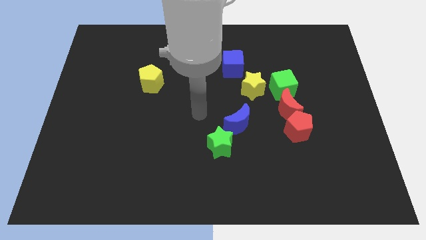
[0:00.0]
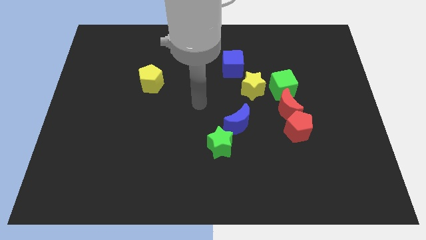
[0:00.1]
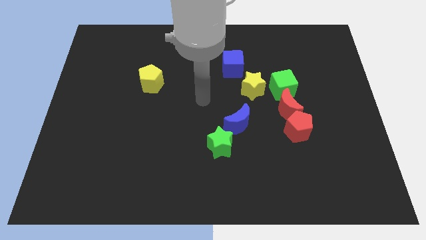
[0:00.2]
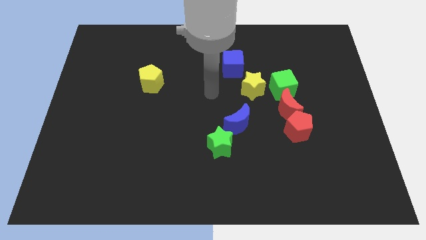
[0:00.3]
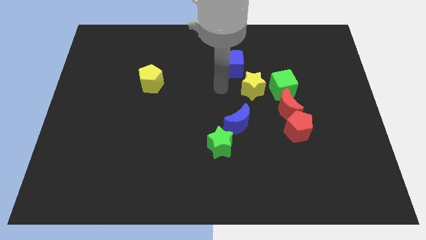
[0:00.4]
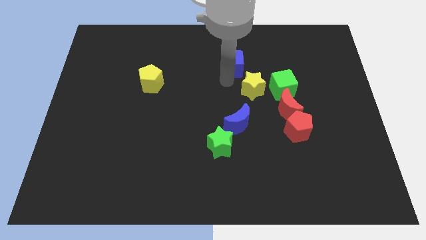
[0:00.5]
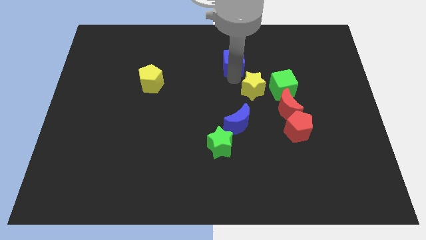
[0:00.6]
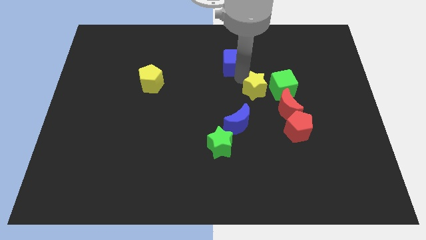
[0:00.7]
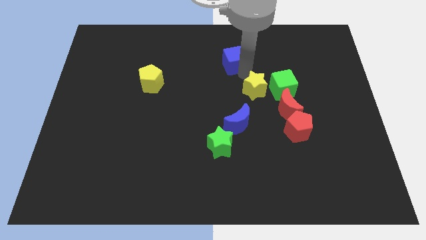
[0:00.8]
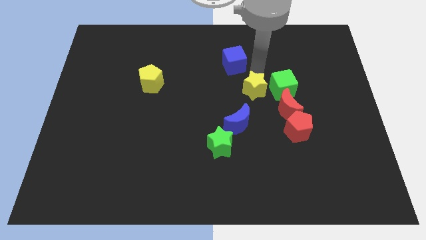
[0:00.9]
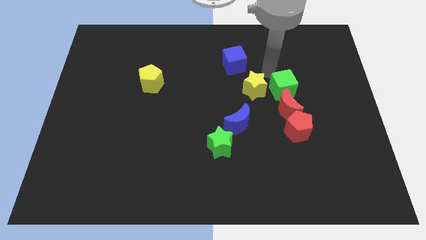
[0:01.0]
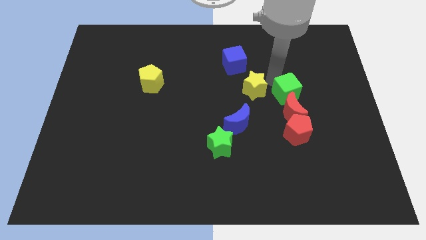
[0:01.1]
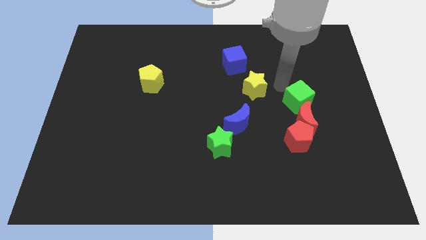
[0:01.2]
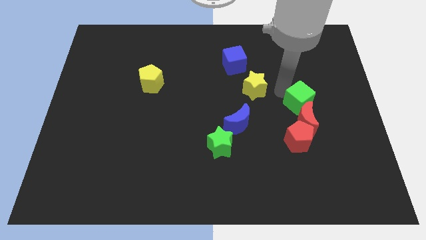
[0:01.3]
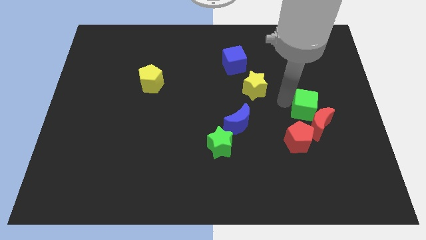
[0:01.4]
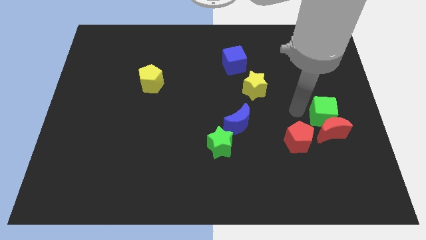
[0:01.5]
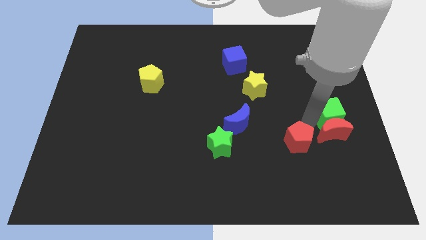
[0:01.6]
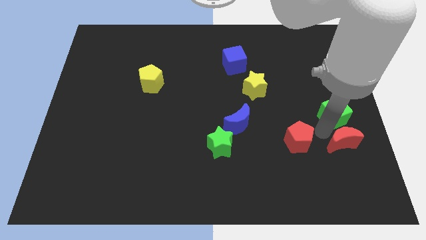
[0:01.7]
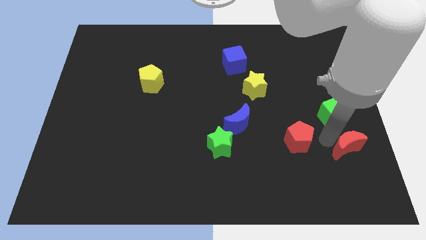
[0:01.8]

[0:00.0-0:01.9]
move the red pentagon away from the red moon

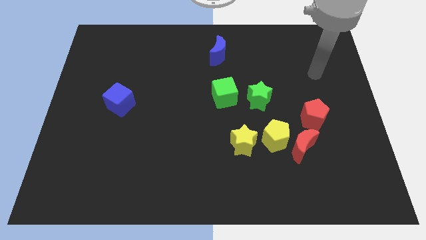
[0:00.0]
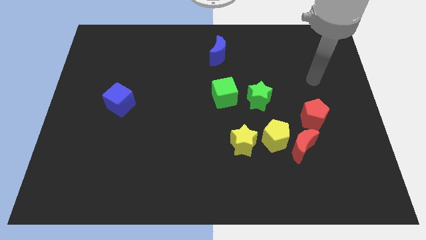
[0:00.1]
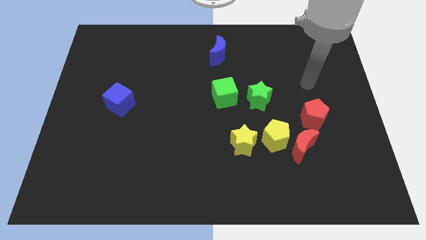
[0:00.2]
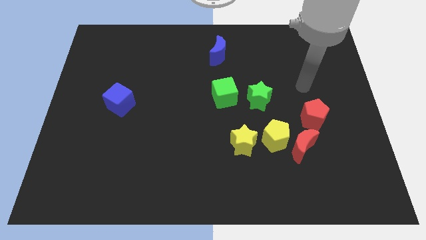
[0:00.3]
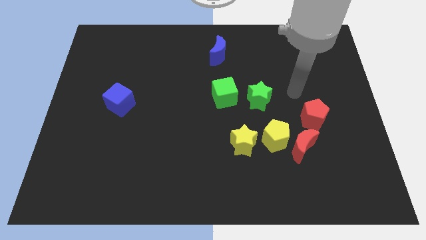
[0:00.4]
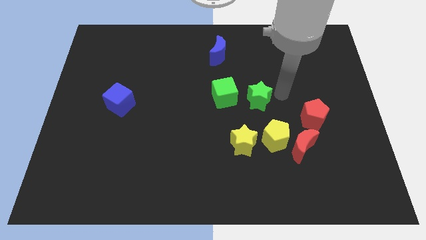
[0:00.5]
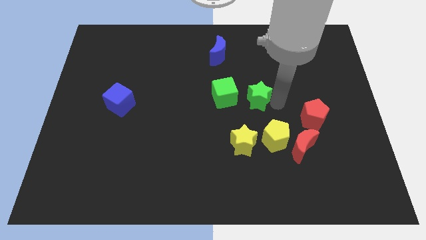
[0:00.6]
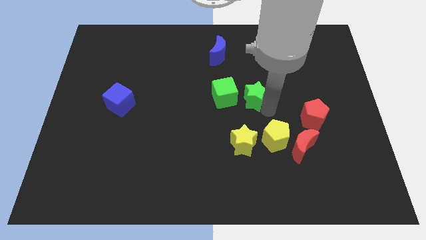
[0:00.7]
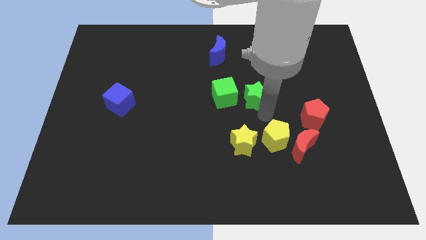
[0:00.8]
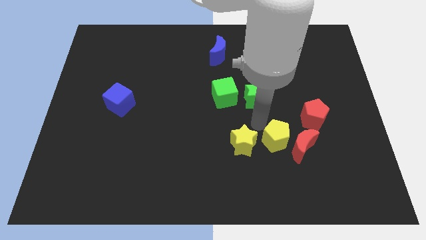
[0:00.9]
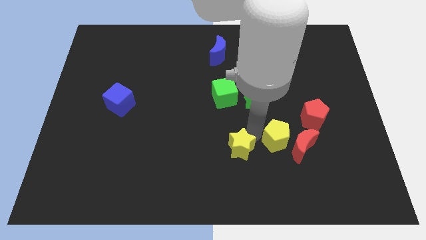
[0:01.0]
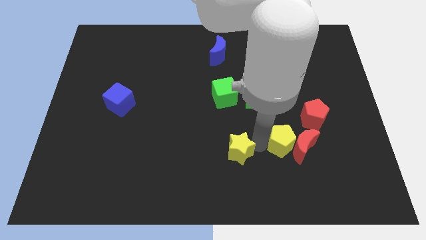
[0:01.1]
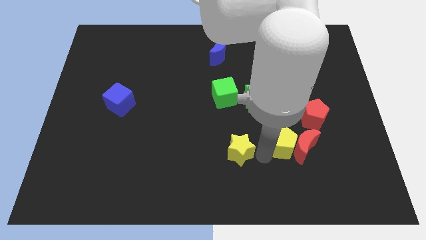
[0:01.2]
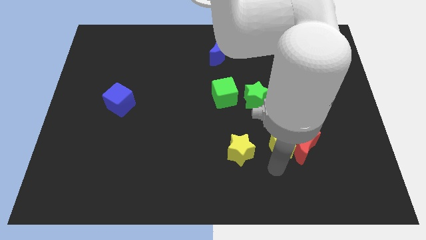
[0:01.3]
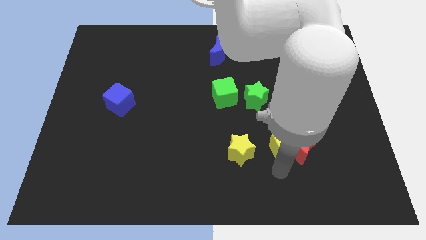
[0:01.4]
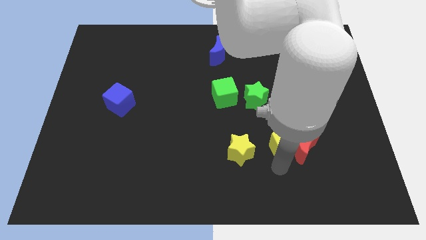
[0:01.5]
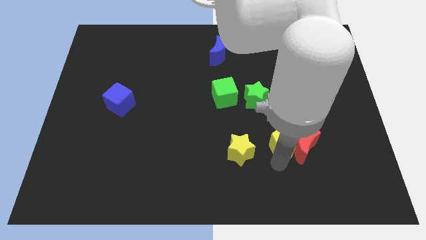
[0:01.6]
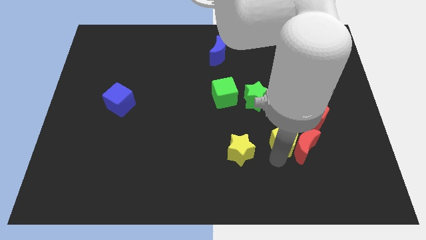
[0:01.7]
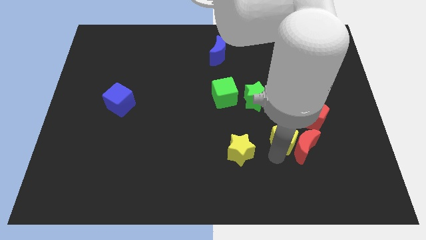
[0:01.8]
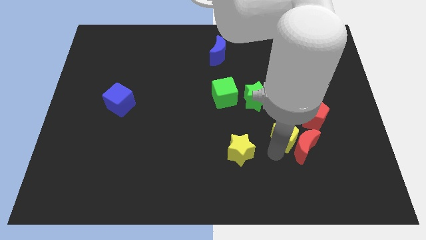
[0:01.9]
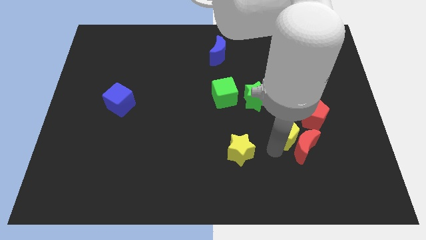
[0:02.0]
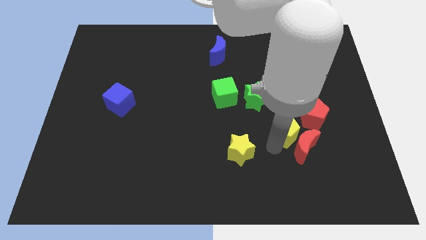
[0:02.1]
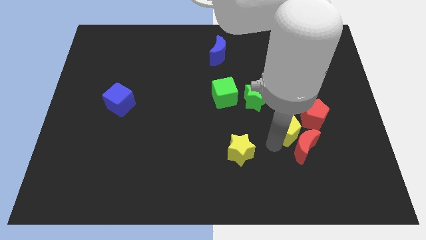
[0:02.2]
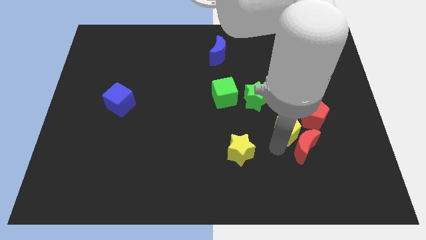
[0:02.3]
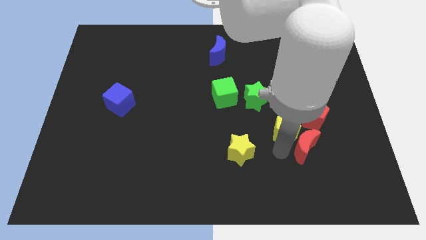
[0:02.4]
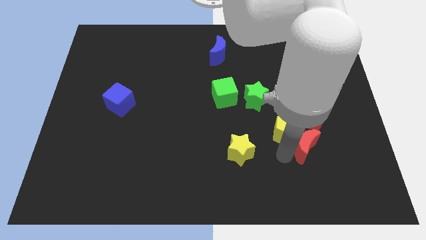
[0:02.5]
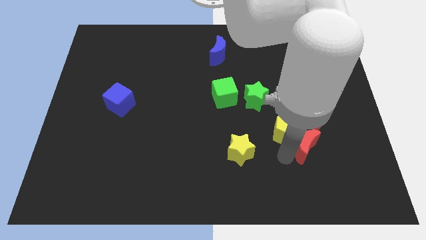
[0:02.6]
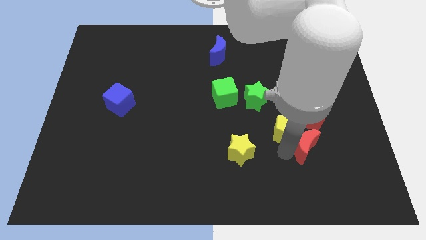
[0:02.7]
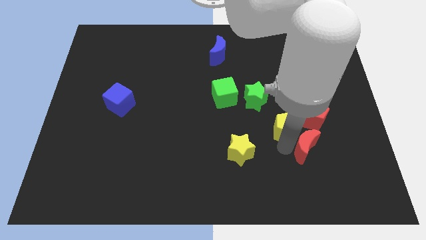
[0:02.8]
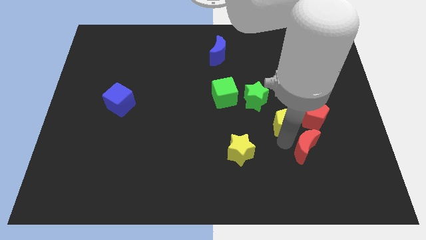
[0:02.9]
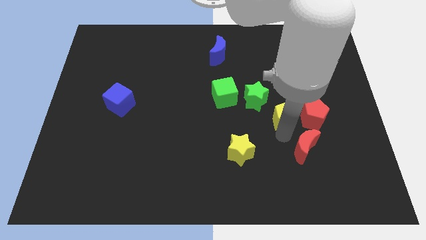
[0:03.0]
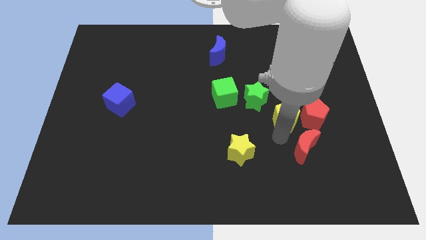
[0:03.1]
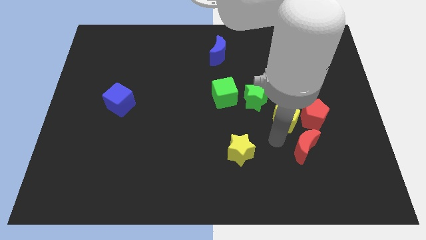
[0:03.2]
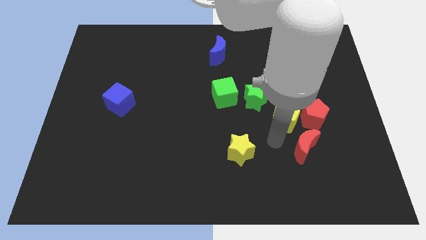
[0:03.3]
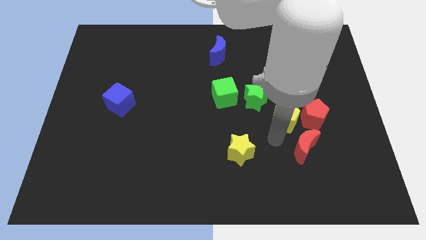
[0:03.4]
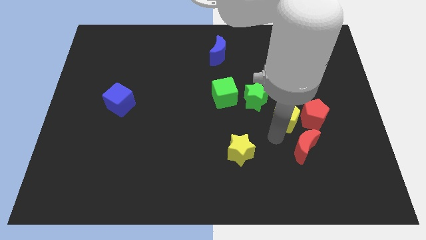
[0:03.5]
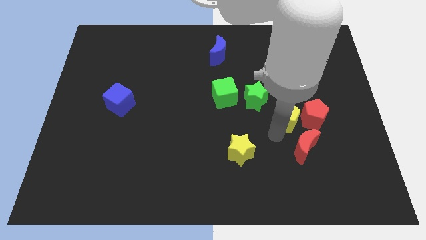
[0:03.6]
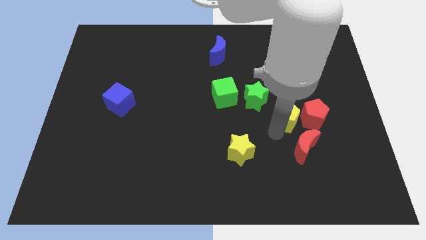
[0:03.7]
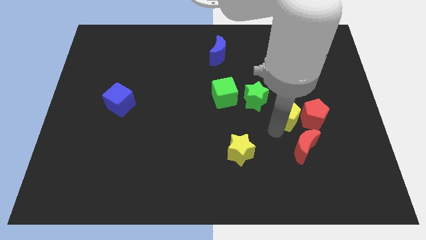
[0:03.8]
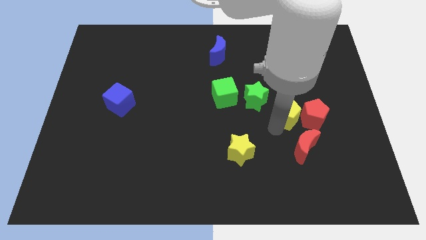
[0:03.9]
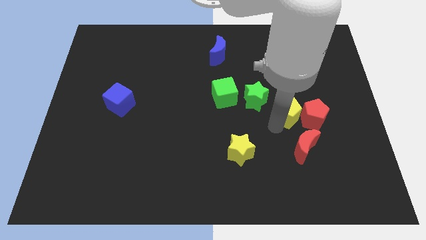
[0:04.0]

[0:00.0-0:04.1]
pull the yellow pentagon apart from the red moon and yellow star

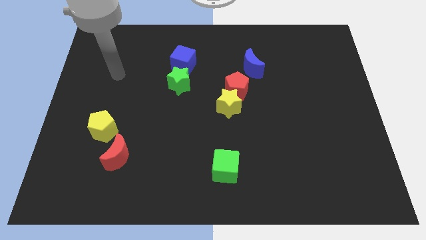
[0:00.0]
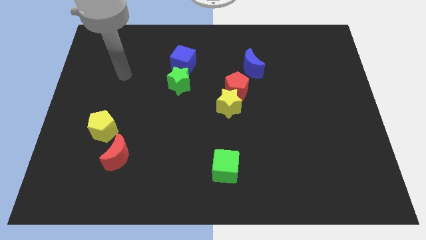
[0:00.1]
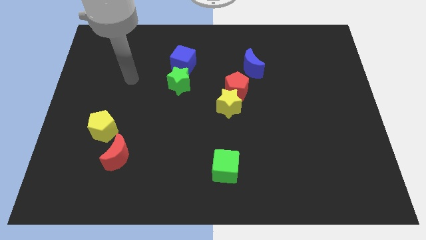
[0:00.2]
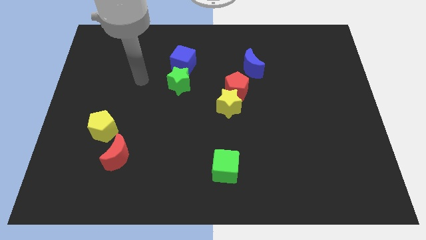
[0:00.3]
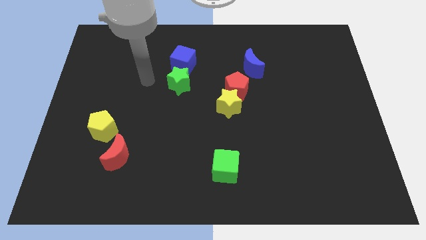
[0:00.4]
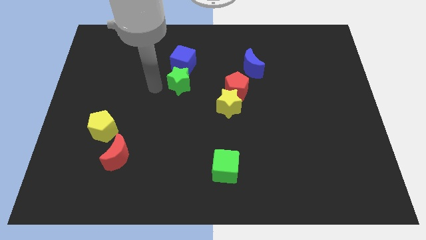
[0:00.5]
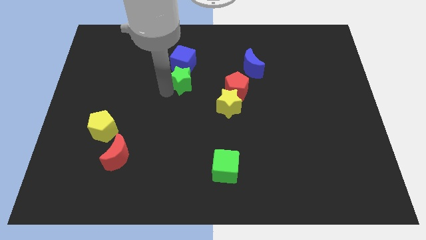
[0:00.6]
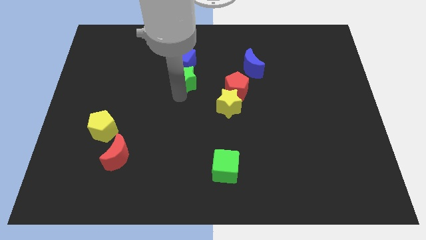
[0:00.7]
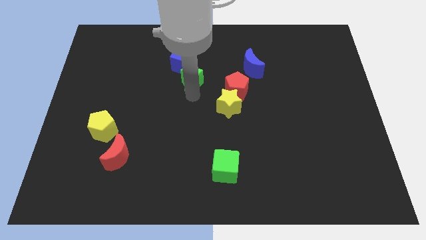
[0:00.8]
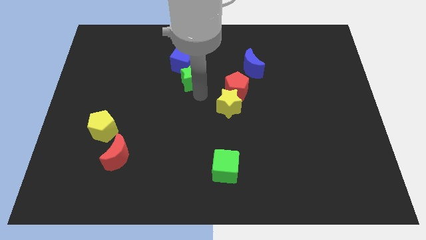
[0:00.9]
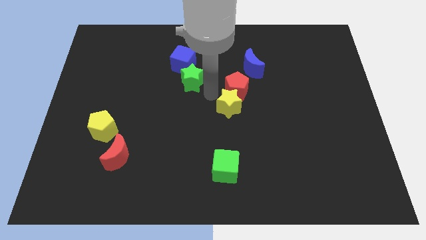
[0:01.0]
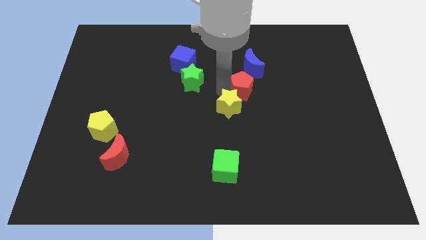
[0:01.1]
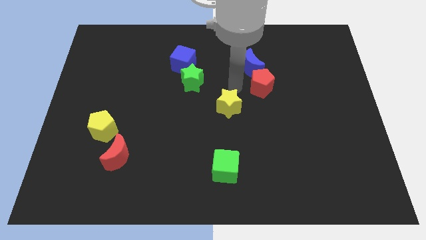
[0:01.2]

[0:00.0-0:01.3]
pull the yellow star apart from the red pentagon

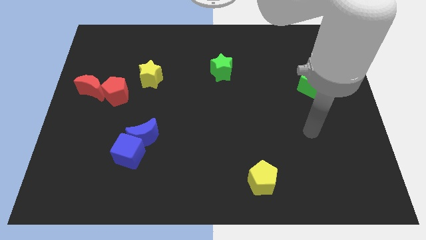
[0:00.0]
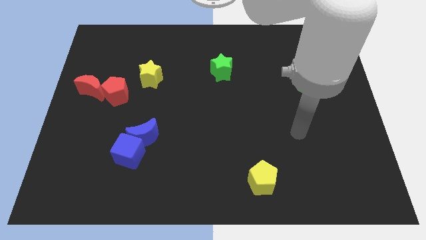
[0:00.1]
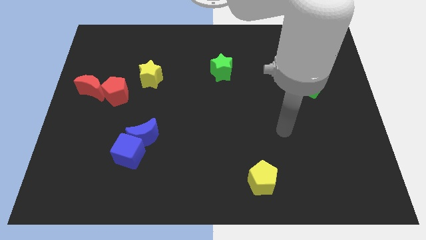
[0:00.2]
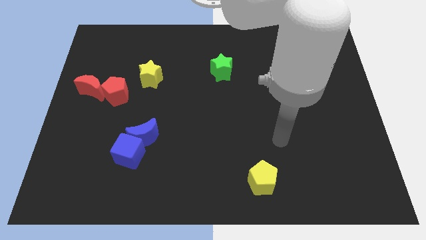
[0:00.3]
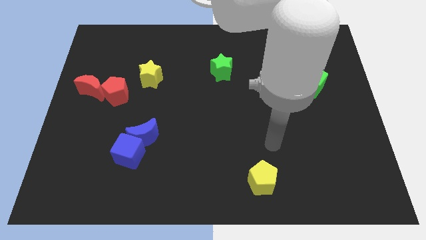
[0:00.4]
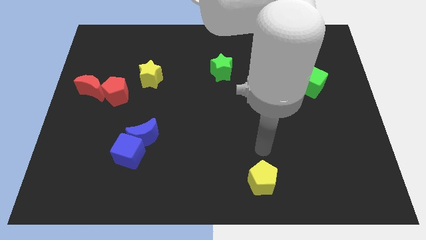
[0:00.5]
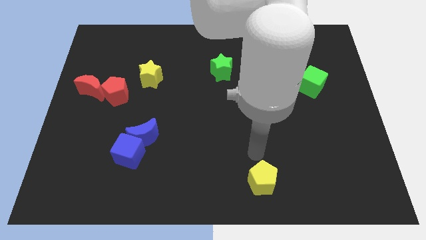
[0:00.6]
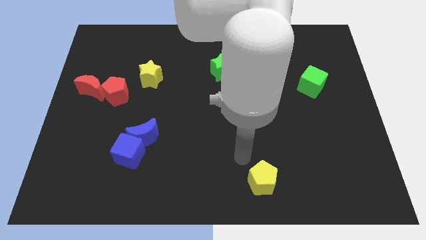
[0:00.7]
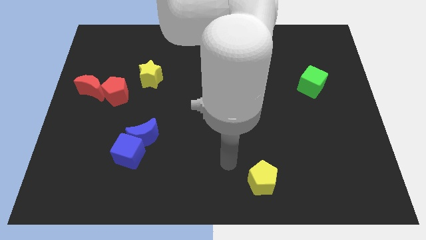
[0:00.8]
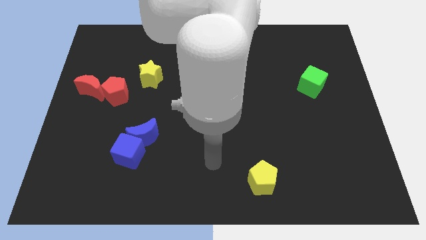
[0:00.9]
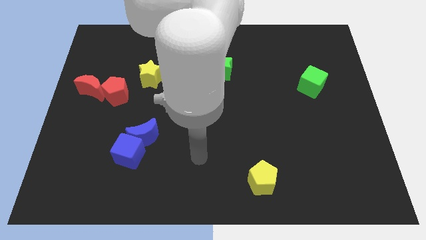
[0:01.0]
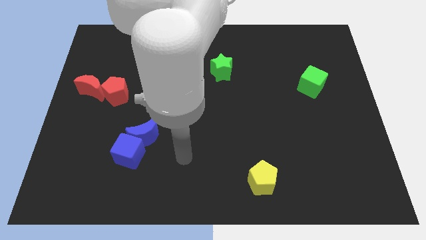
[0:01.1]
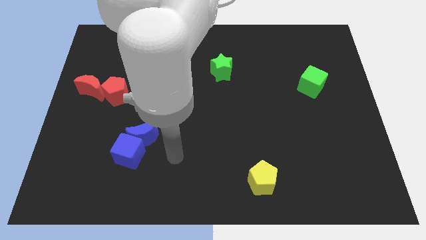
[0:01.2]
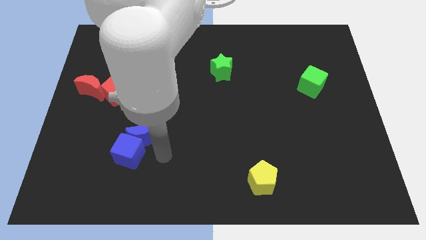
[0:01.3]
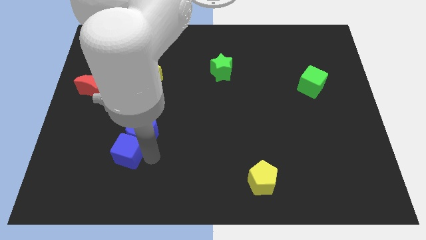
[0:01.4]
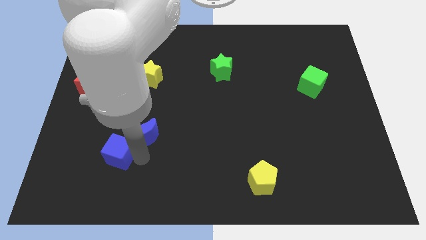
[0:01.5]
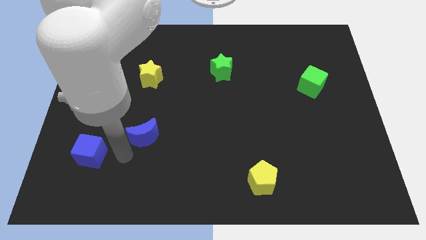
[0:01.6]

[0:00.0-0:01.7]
move the blue moon away from the blue cube

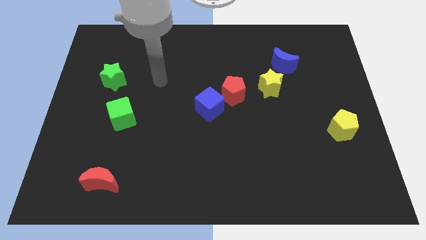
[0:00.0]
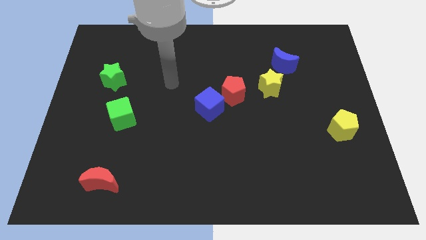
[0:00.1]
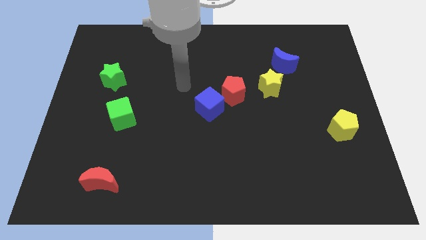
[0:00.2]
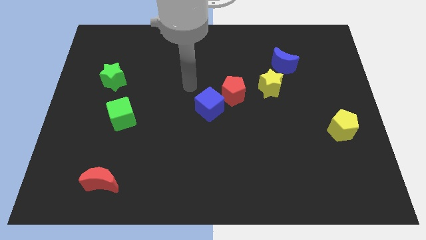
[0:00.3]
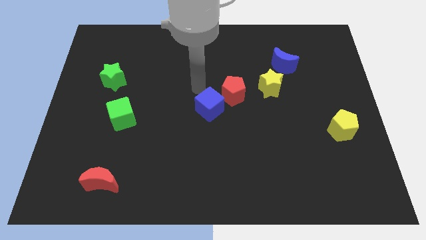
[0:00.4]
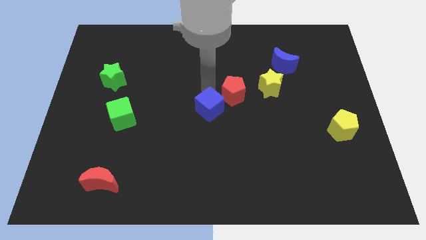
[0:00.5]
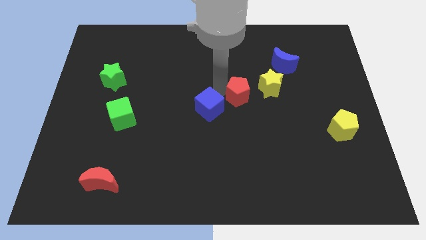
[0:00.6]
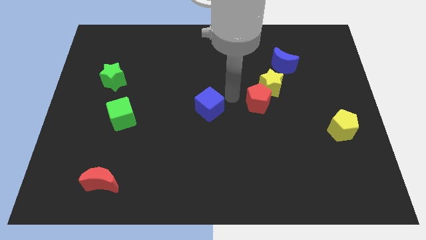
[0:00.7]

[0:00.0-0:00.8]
move the blue cube away from the red pentagon
